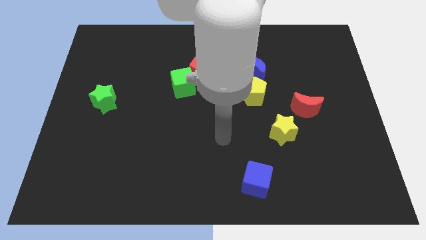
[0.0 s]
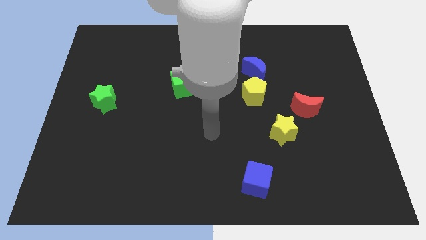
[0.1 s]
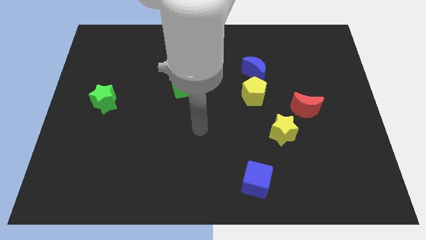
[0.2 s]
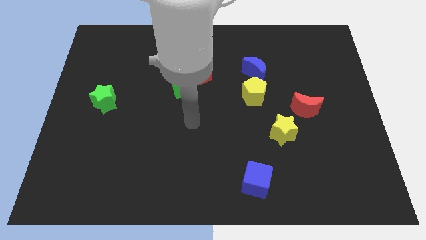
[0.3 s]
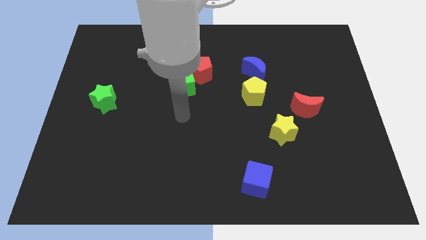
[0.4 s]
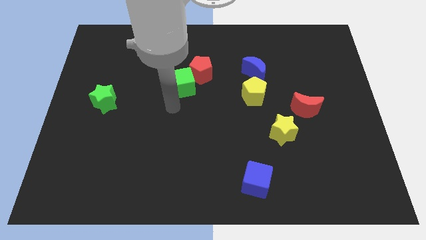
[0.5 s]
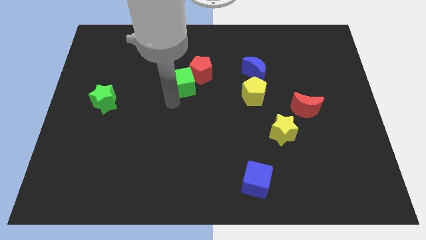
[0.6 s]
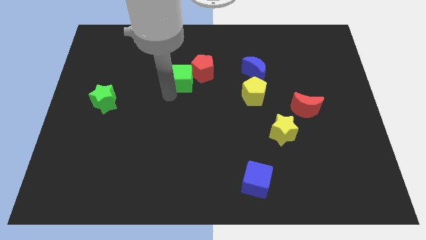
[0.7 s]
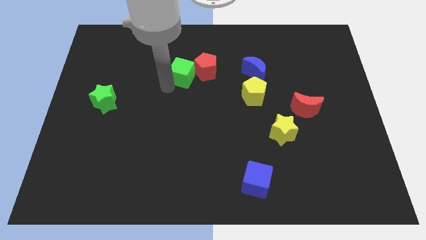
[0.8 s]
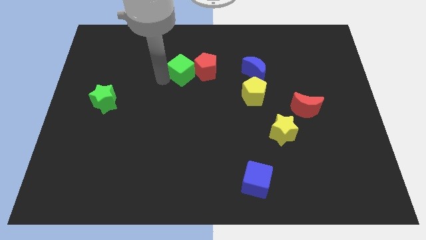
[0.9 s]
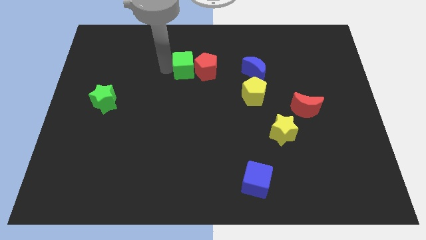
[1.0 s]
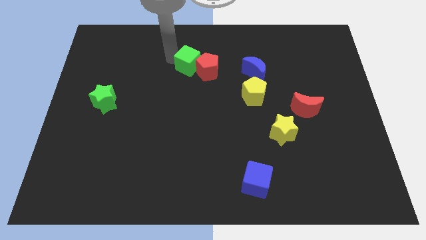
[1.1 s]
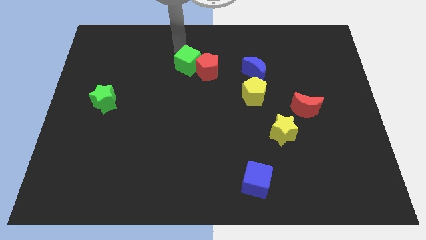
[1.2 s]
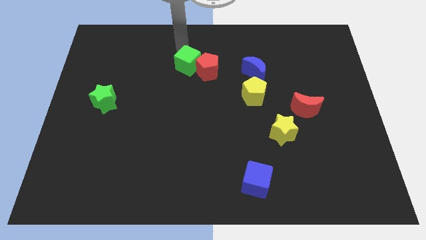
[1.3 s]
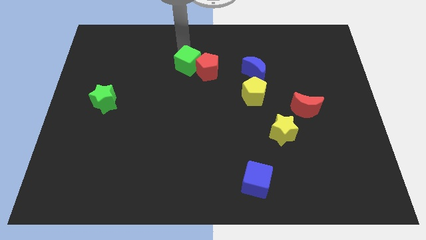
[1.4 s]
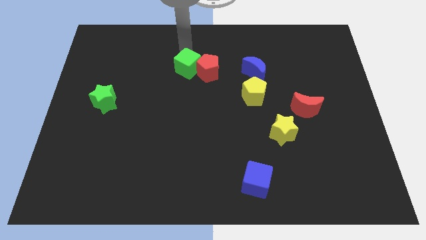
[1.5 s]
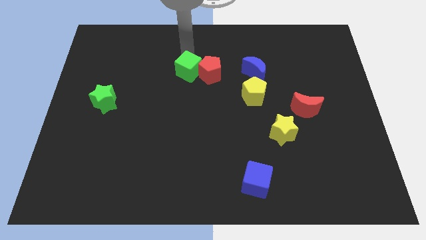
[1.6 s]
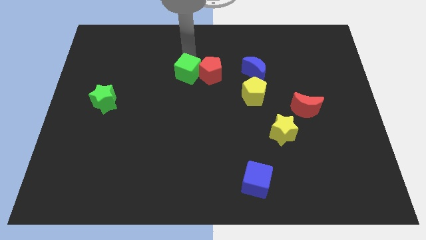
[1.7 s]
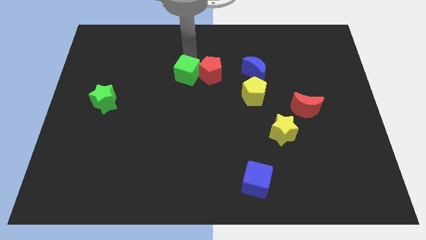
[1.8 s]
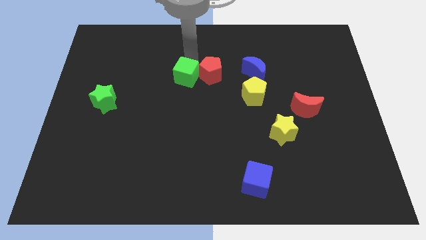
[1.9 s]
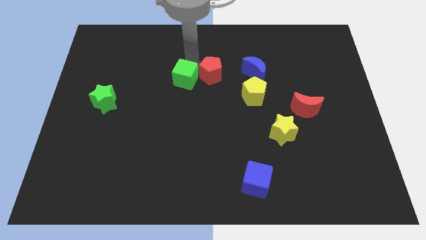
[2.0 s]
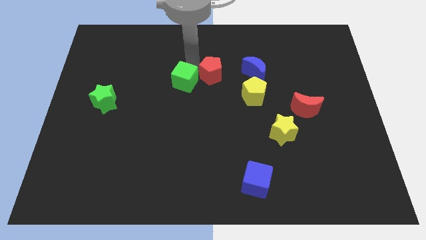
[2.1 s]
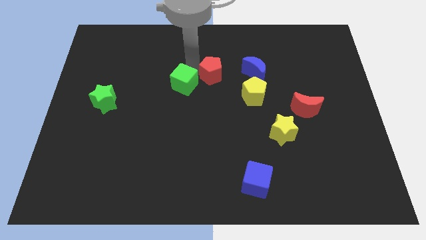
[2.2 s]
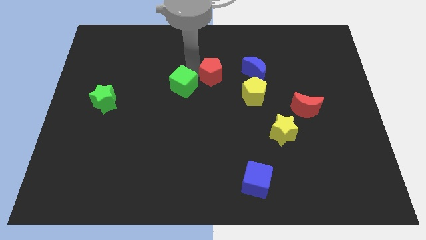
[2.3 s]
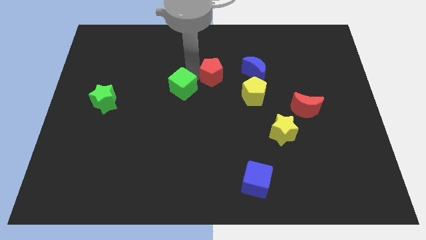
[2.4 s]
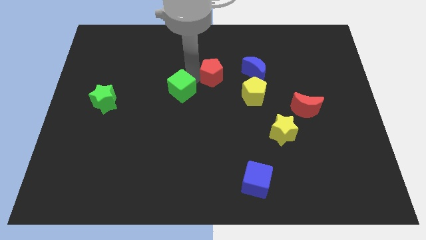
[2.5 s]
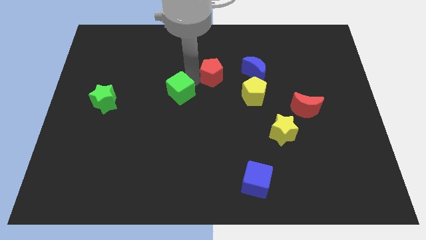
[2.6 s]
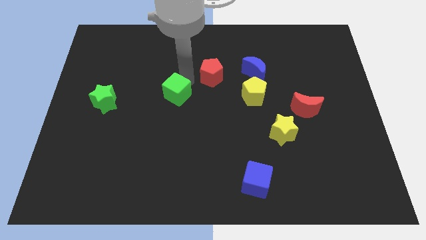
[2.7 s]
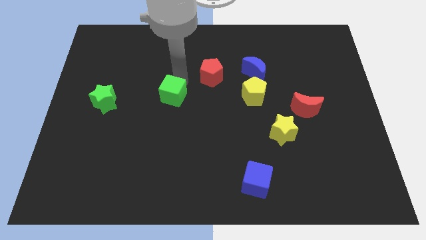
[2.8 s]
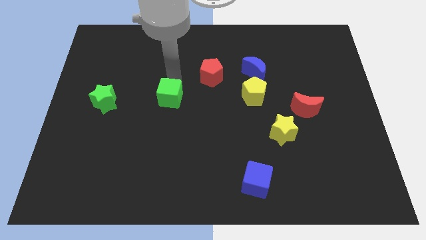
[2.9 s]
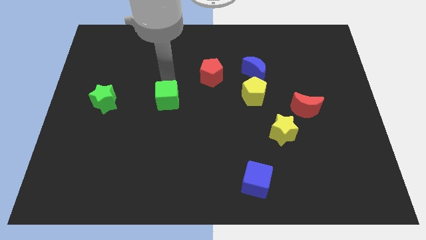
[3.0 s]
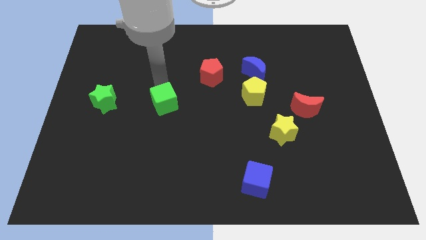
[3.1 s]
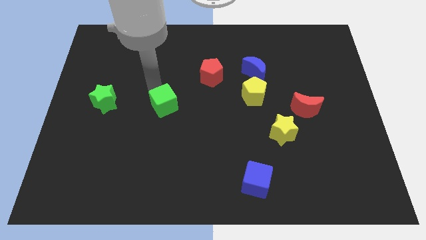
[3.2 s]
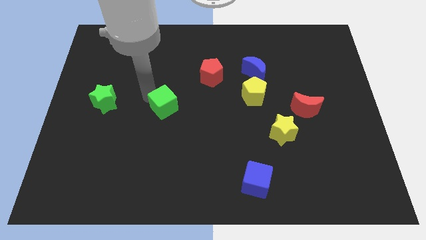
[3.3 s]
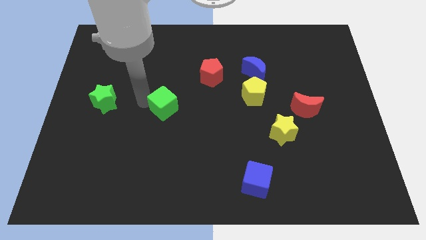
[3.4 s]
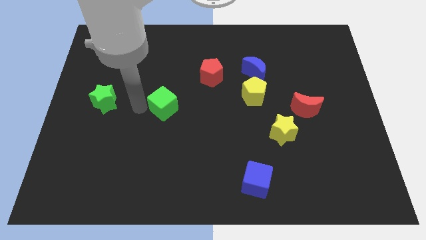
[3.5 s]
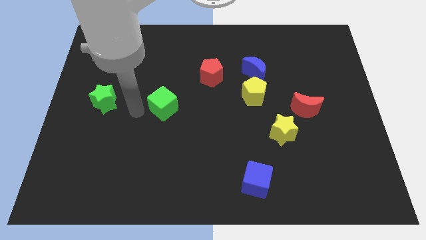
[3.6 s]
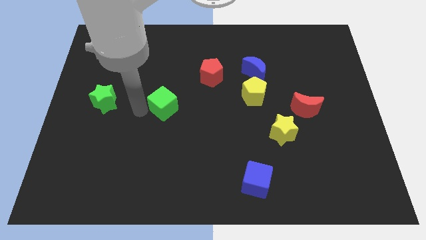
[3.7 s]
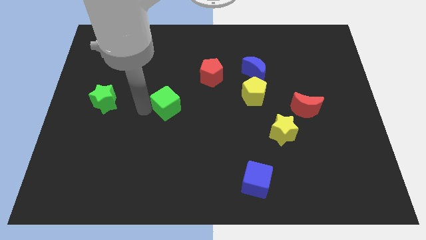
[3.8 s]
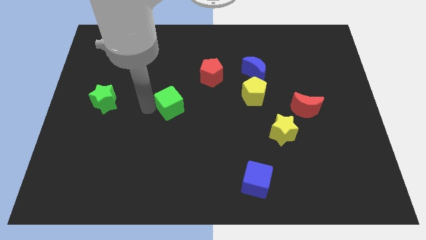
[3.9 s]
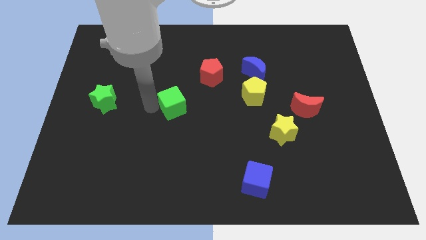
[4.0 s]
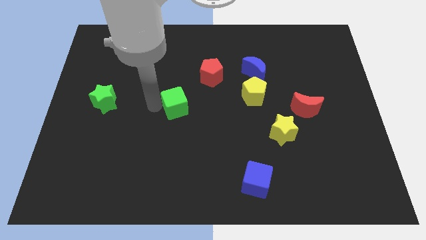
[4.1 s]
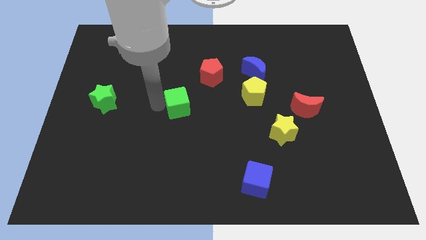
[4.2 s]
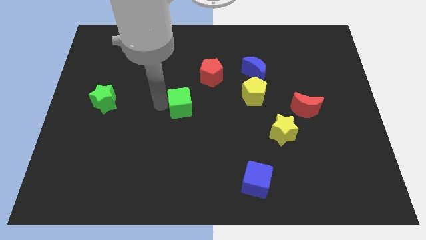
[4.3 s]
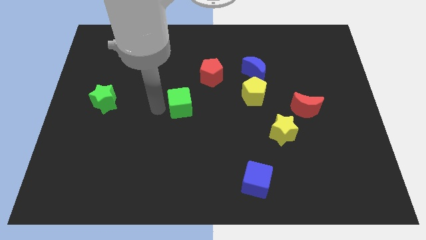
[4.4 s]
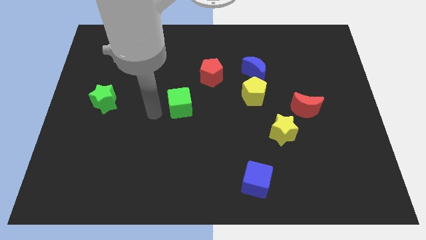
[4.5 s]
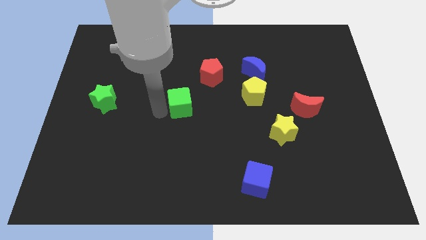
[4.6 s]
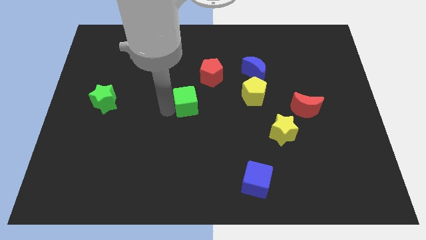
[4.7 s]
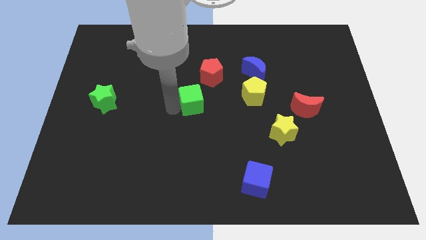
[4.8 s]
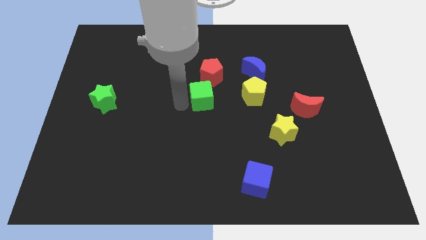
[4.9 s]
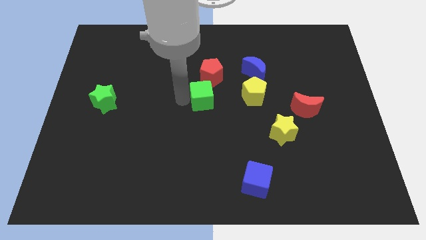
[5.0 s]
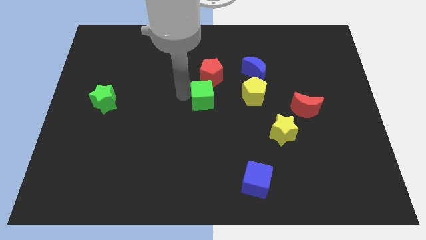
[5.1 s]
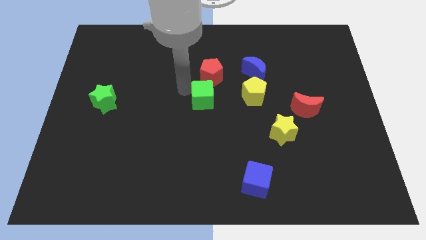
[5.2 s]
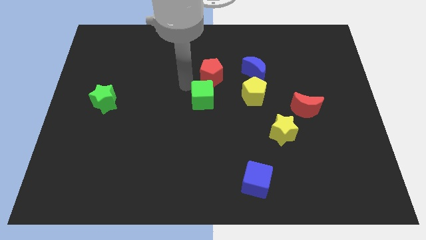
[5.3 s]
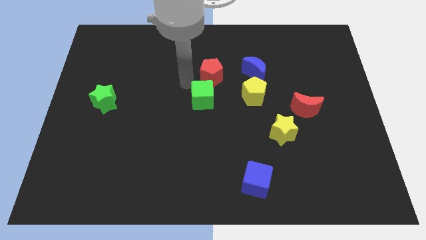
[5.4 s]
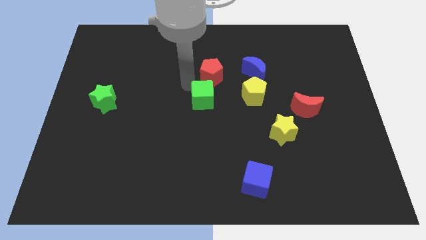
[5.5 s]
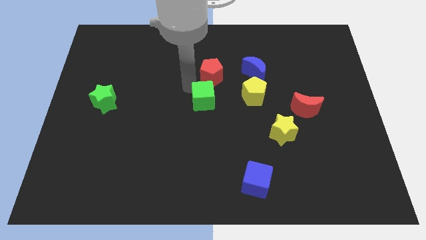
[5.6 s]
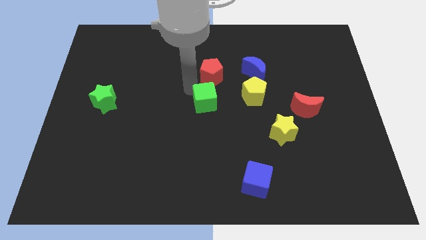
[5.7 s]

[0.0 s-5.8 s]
slightly push the green cube down and right diagonally

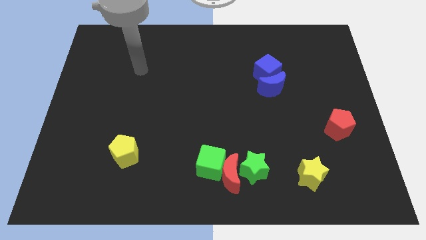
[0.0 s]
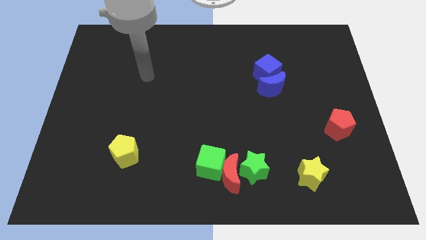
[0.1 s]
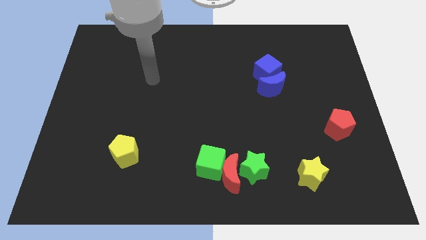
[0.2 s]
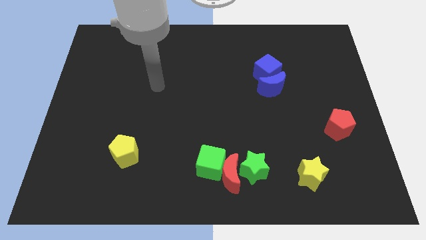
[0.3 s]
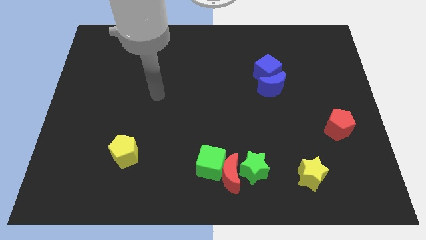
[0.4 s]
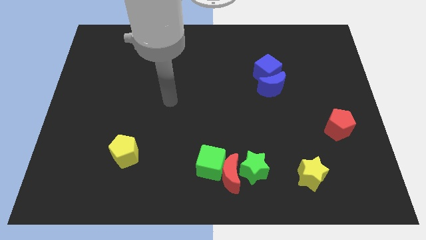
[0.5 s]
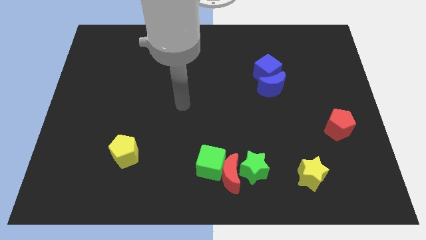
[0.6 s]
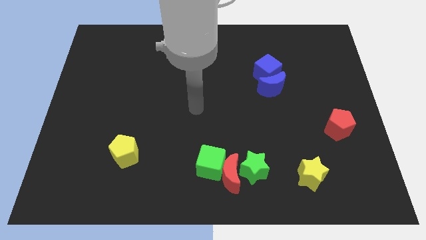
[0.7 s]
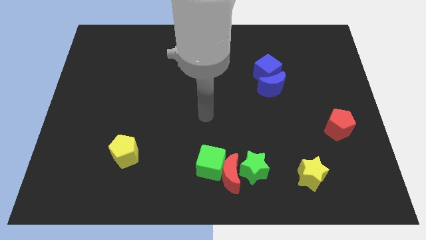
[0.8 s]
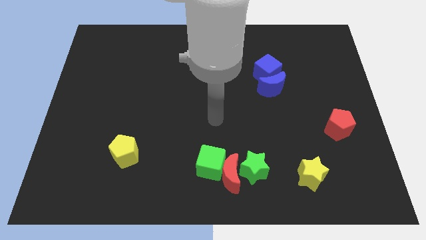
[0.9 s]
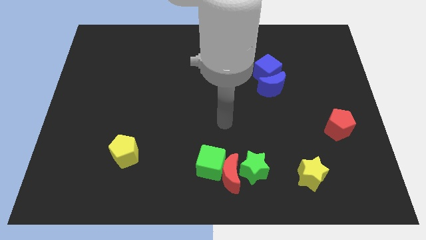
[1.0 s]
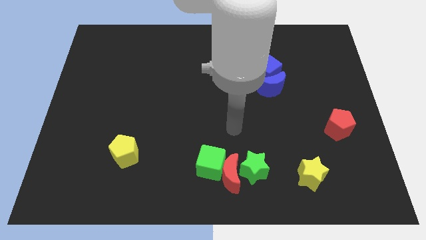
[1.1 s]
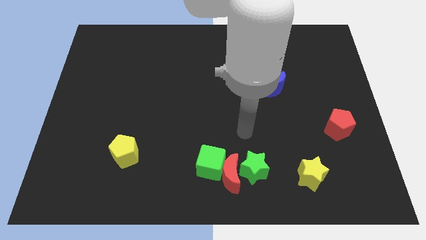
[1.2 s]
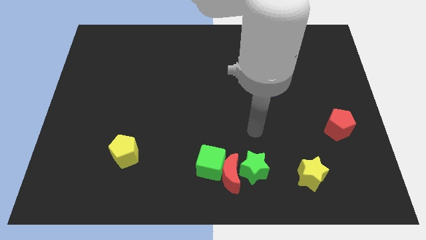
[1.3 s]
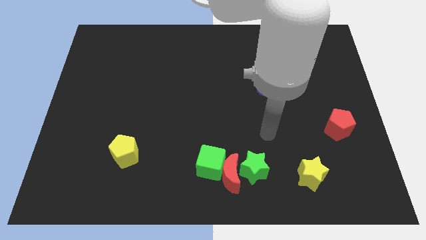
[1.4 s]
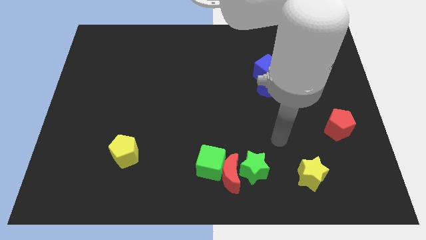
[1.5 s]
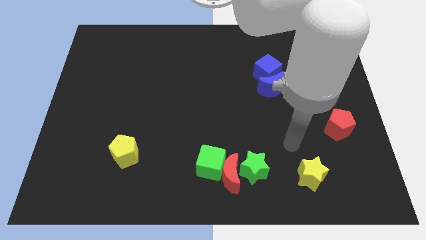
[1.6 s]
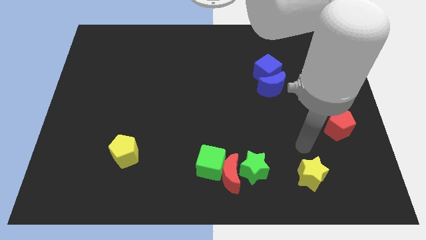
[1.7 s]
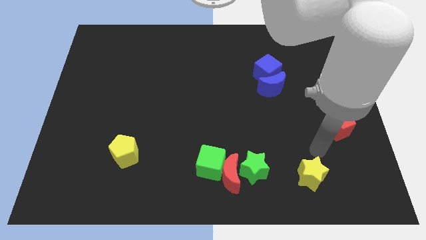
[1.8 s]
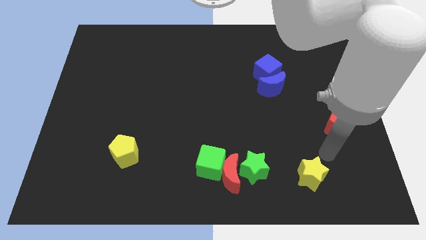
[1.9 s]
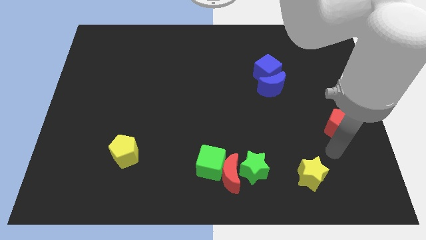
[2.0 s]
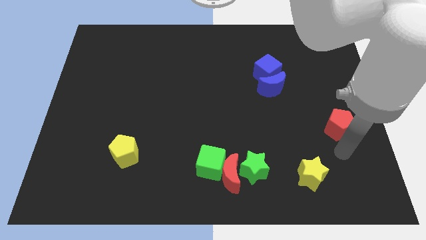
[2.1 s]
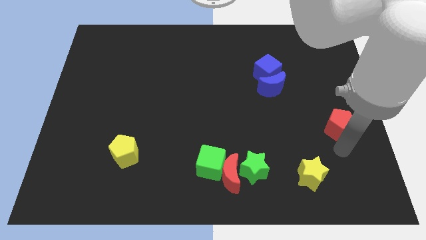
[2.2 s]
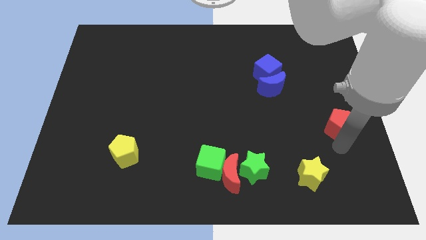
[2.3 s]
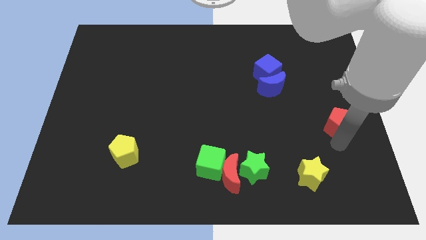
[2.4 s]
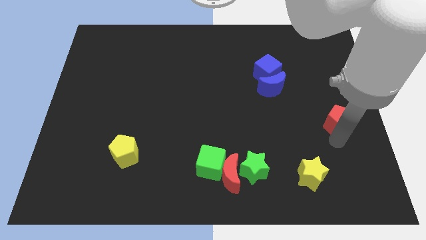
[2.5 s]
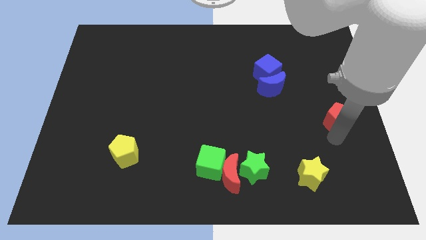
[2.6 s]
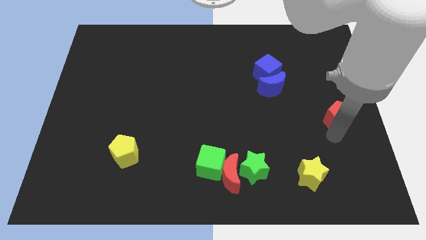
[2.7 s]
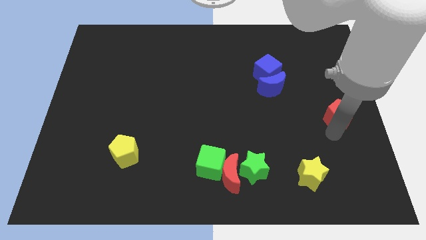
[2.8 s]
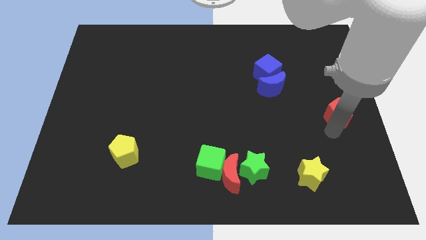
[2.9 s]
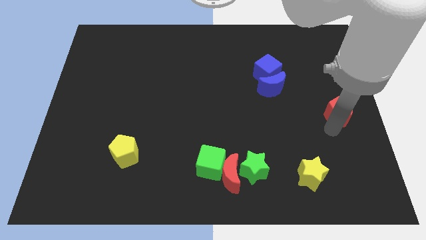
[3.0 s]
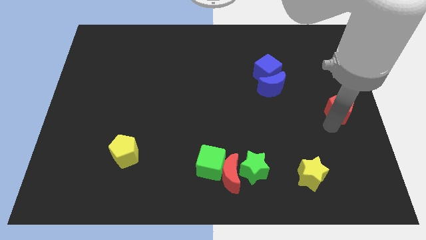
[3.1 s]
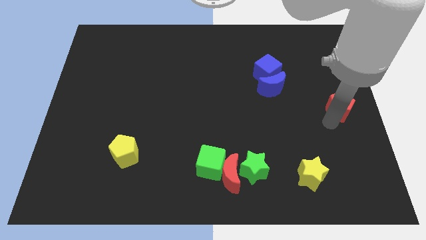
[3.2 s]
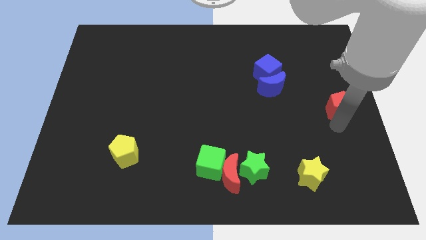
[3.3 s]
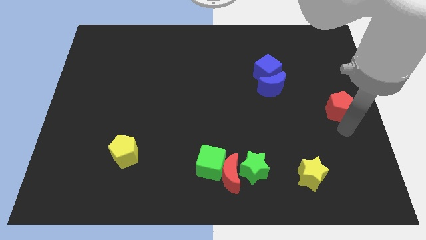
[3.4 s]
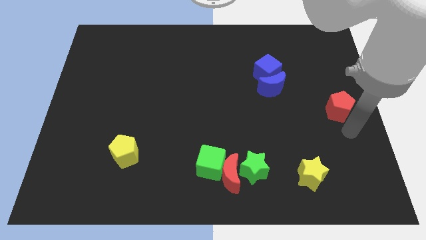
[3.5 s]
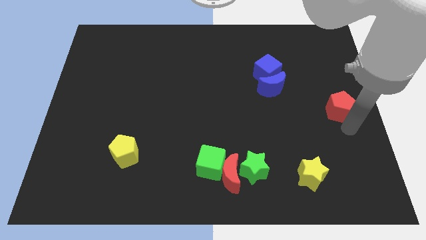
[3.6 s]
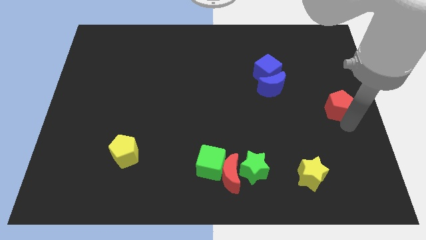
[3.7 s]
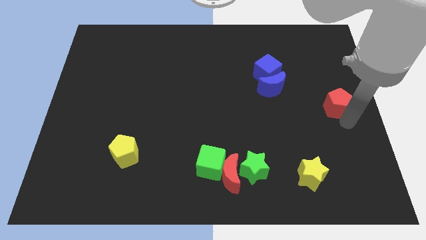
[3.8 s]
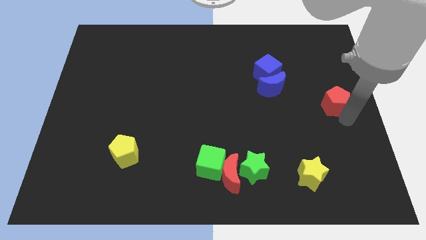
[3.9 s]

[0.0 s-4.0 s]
push the red pentagon somewhat upwards
